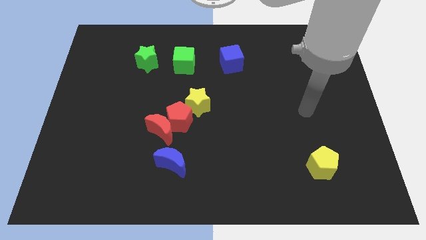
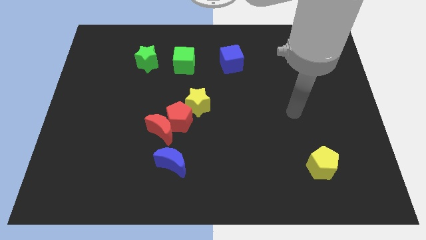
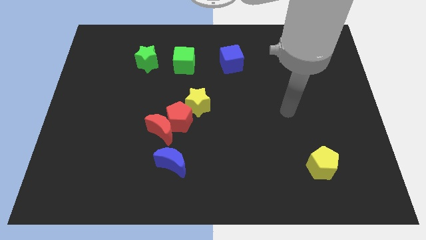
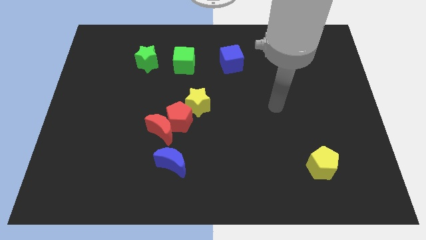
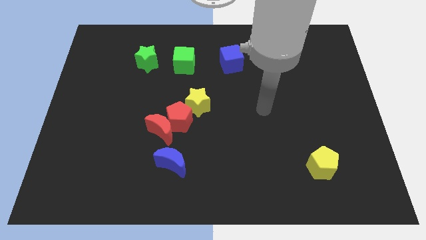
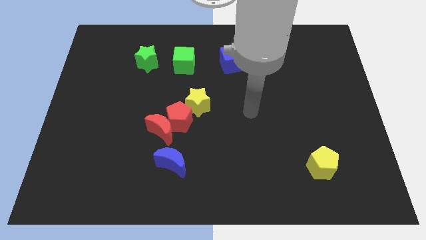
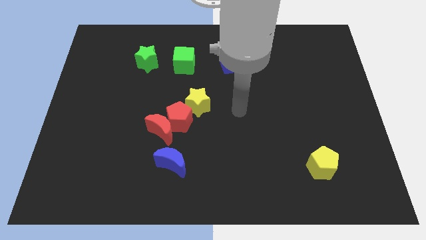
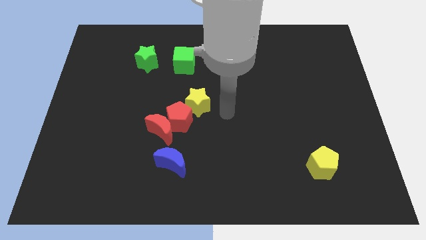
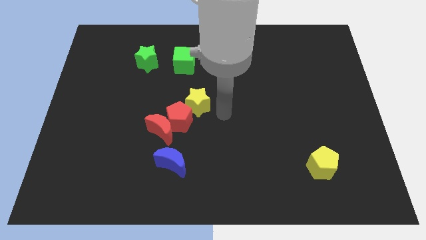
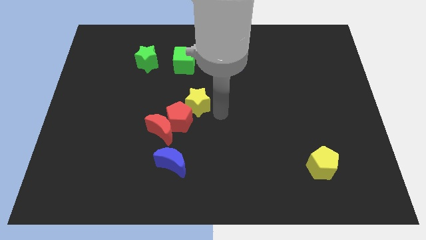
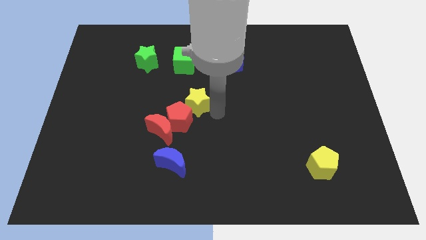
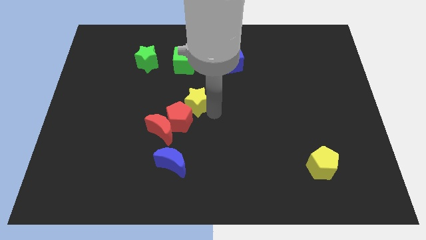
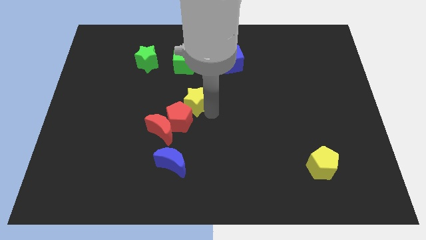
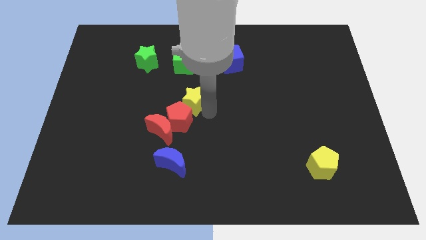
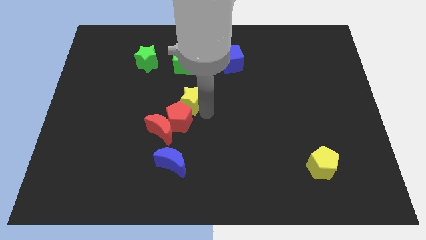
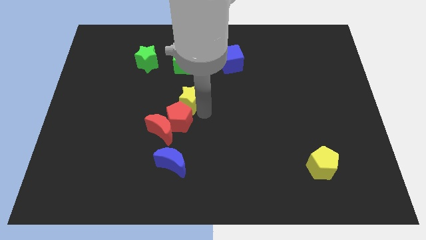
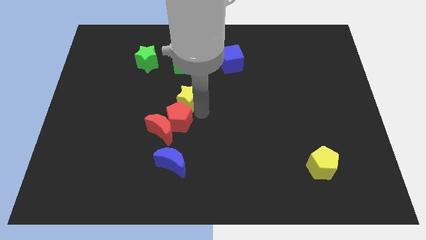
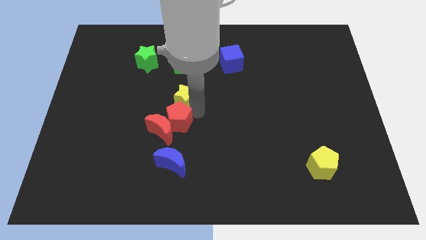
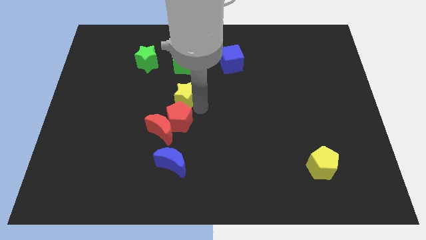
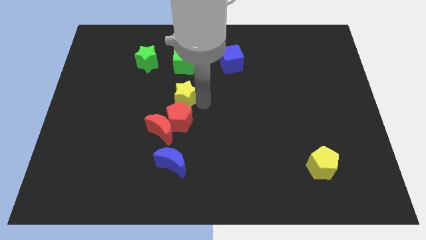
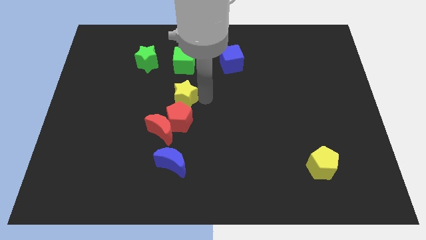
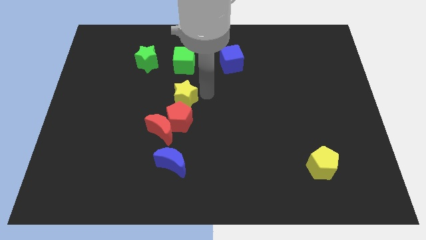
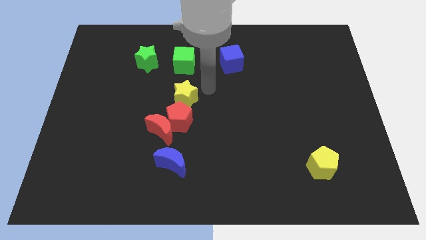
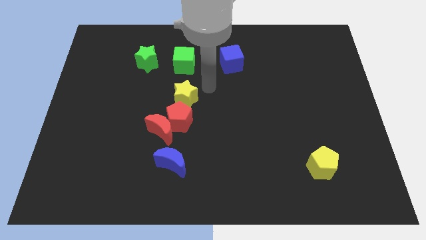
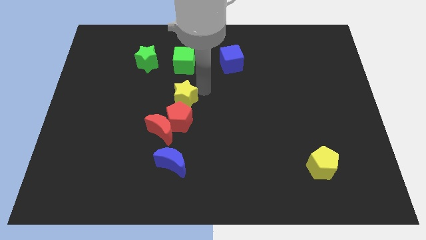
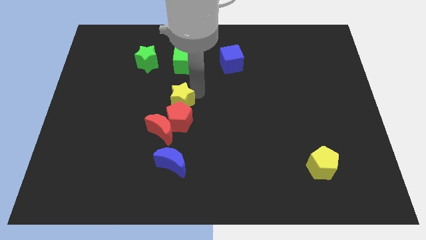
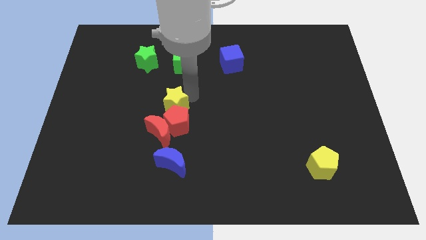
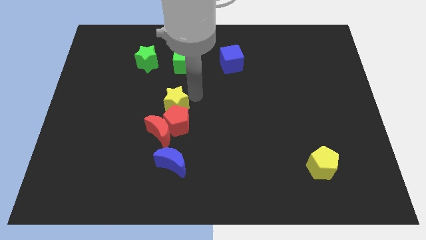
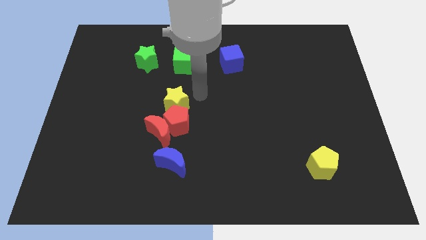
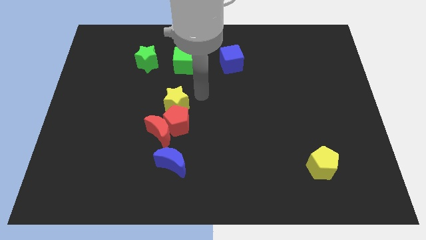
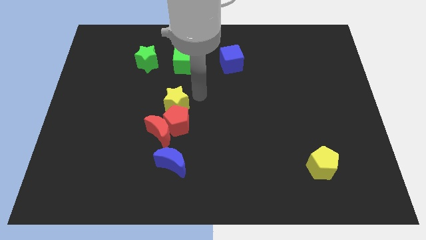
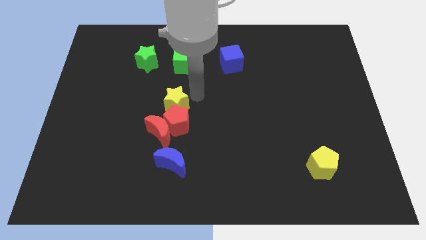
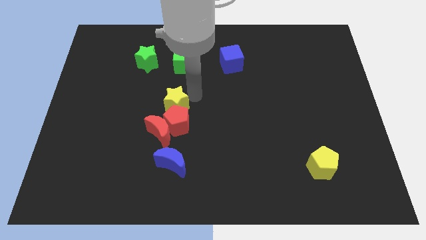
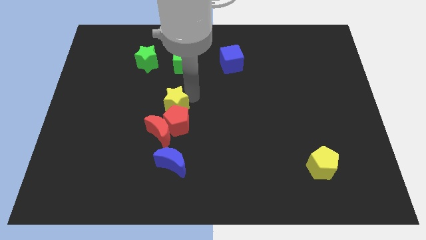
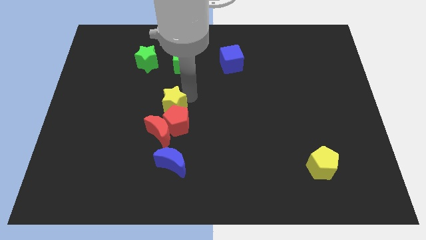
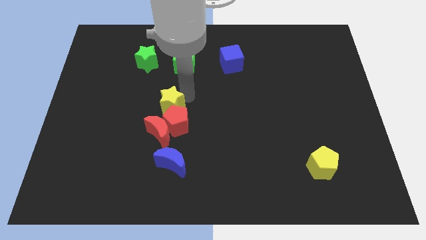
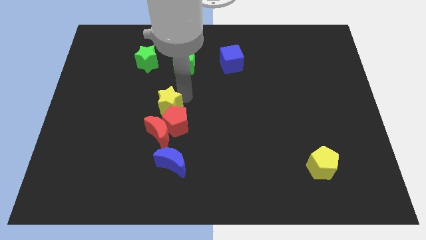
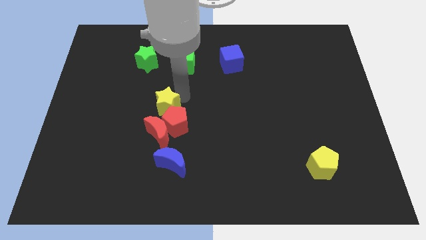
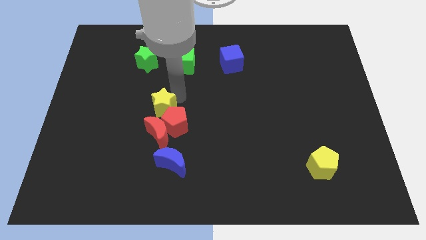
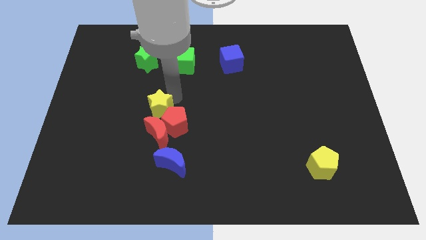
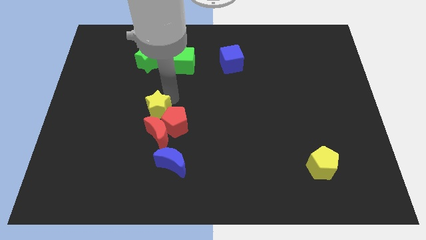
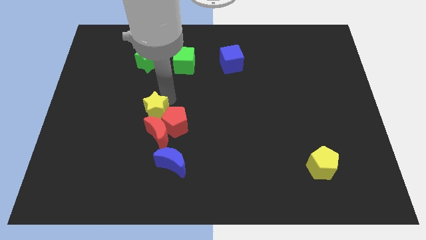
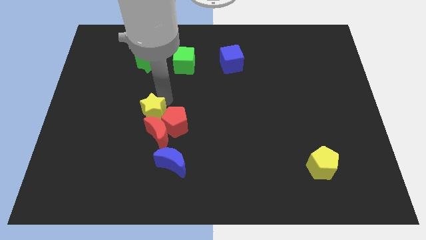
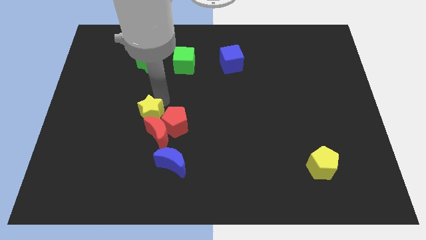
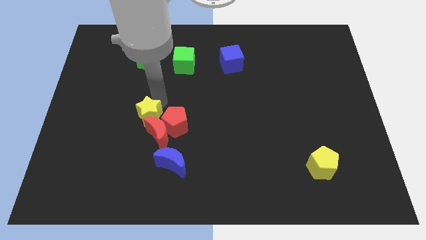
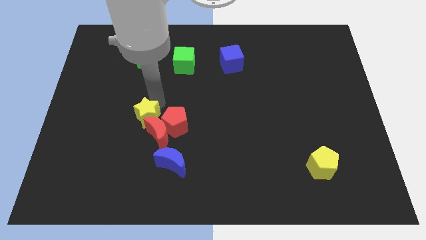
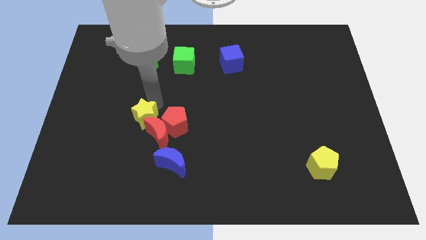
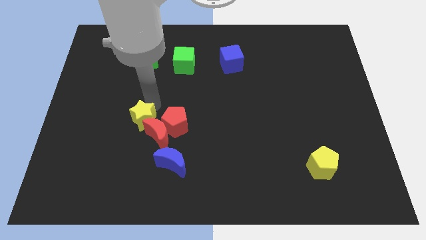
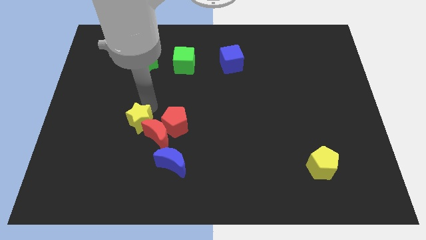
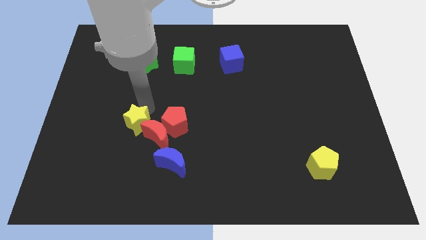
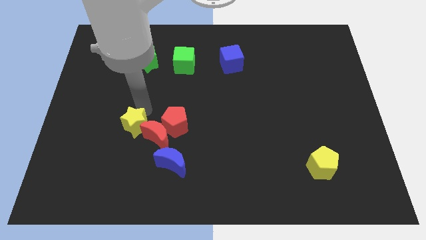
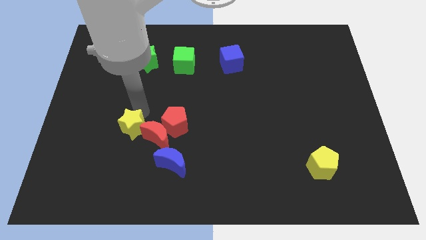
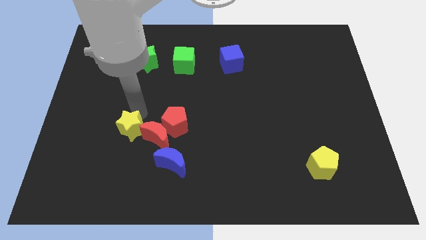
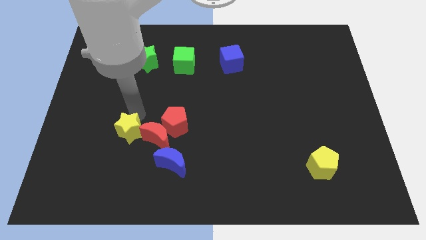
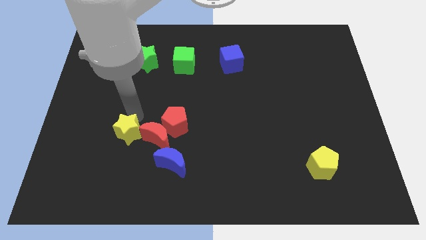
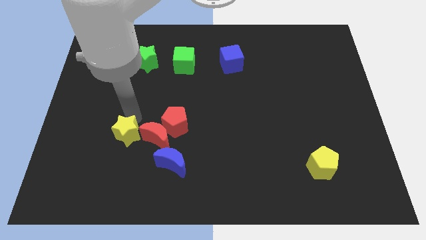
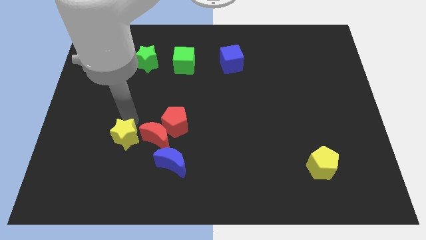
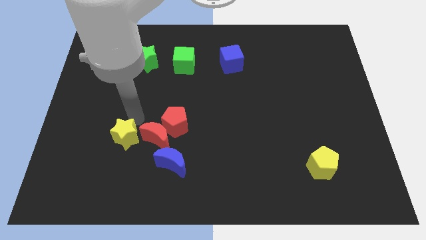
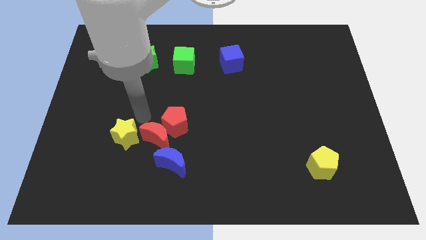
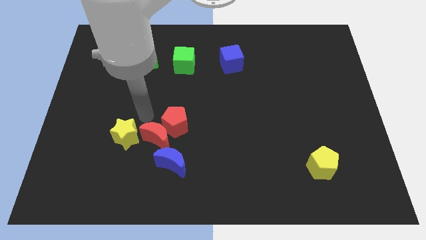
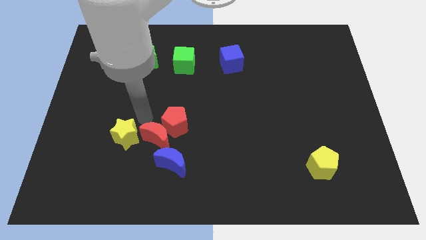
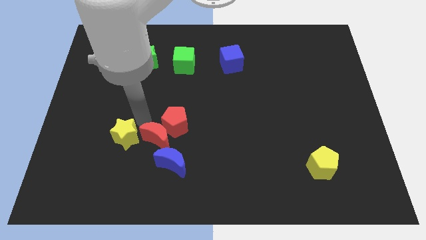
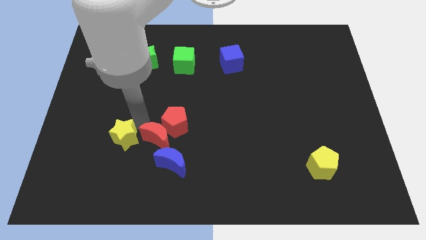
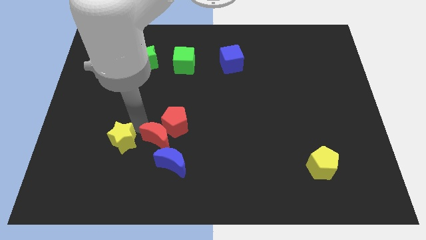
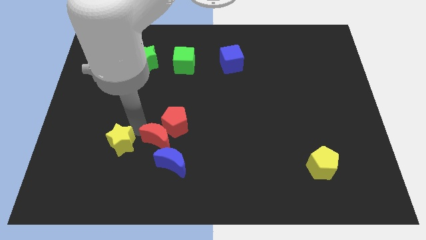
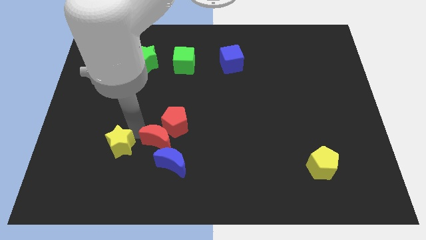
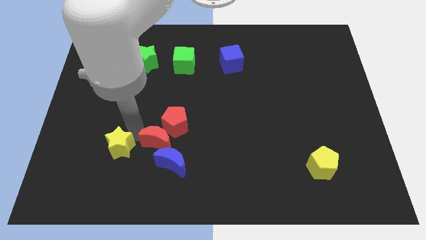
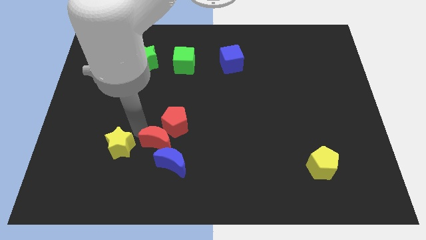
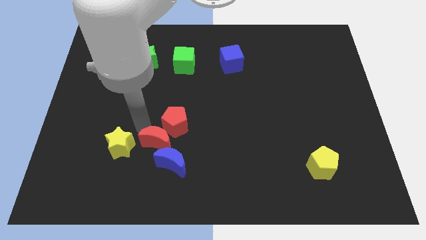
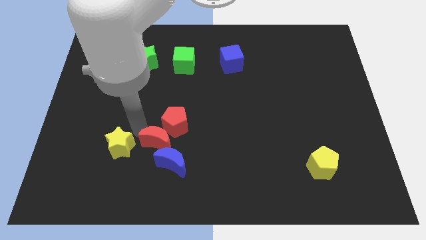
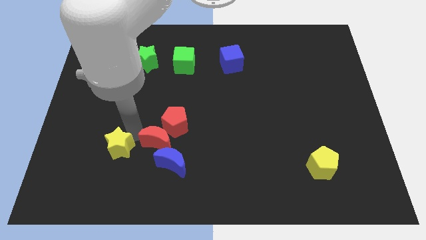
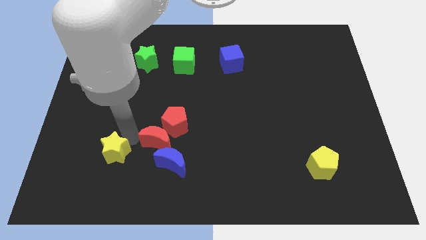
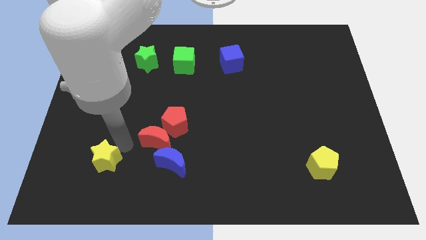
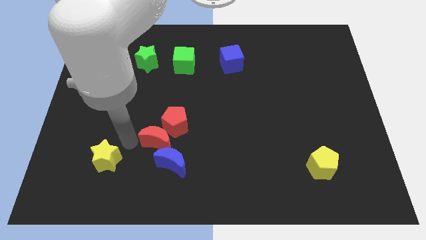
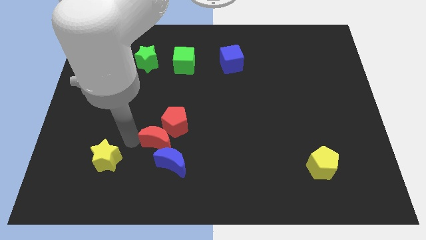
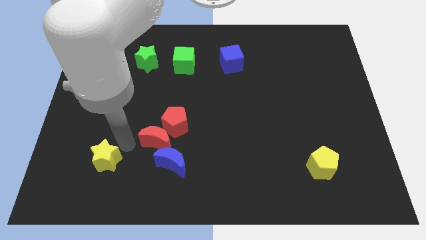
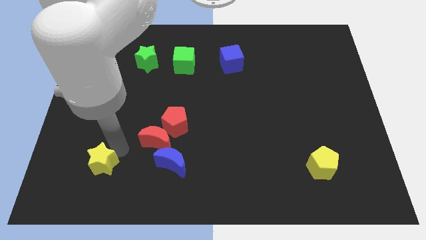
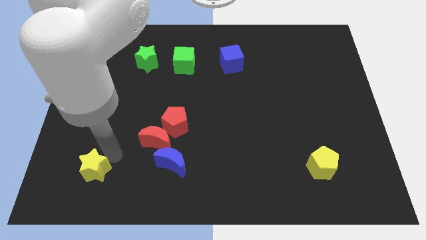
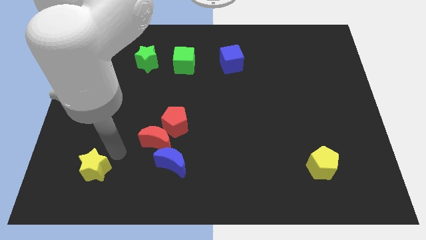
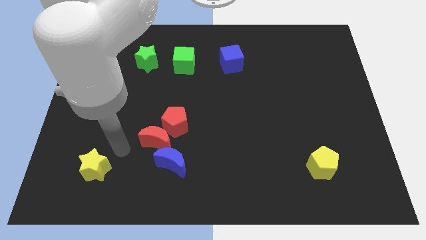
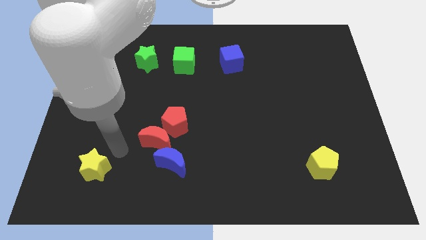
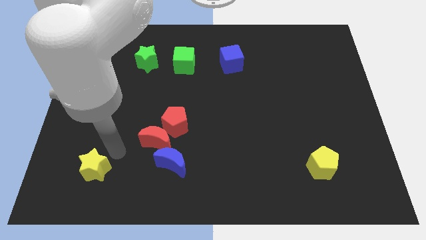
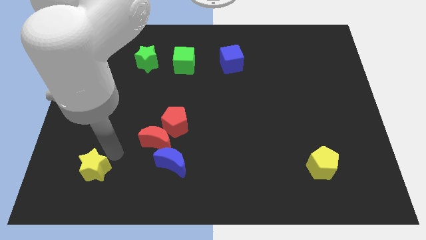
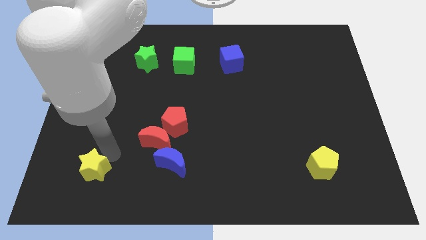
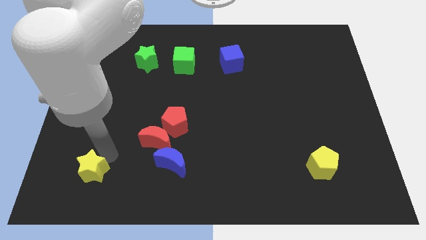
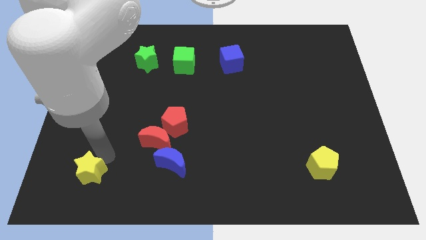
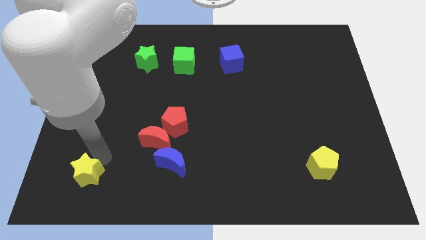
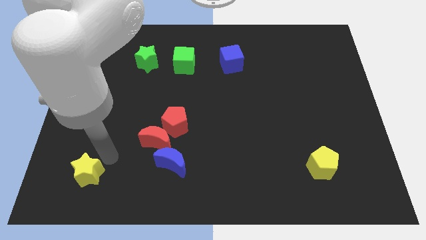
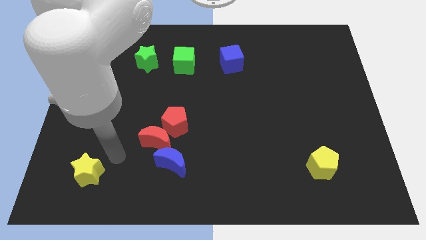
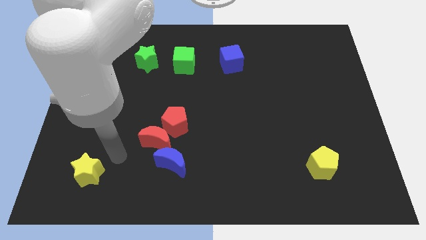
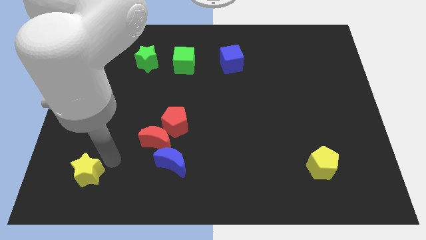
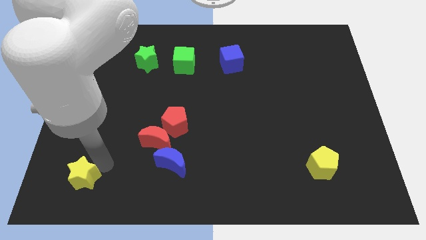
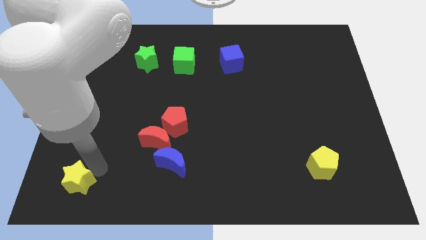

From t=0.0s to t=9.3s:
move the yellow star to the bottom left
